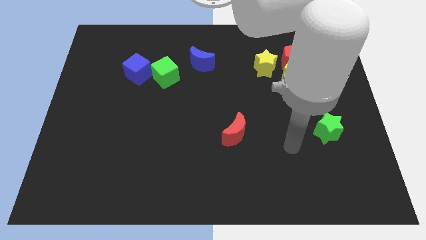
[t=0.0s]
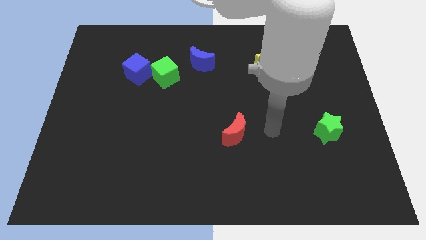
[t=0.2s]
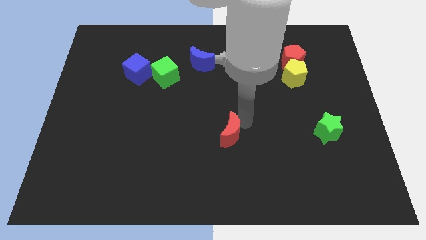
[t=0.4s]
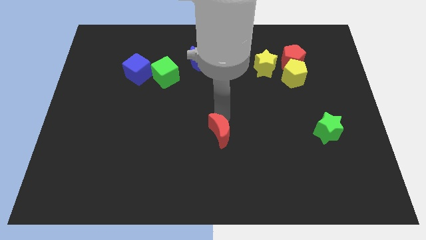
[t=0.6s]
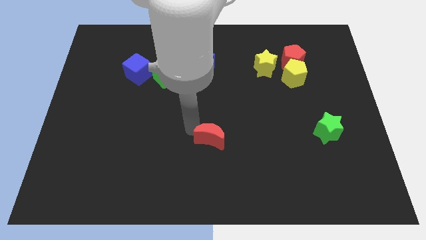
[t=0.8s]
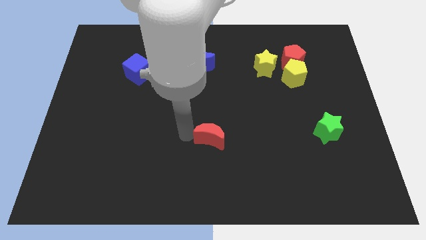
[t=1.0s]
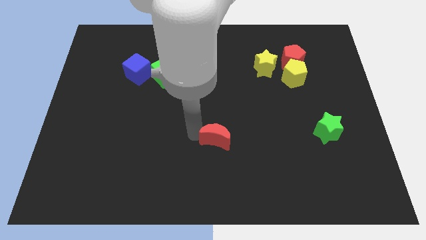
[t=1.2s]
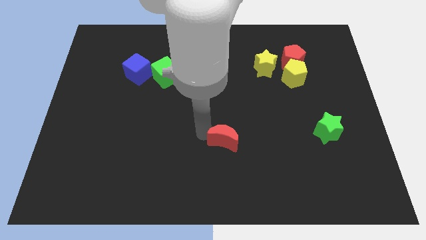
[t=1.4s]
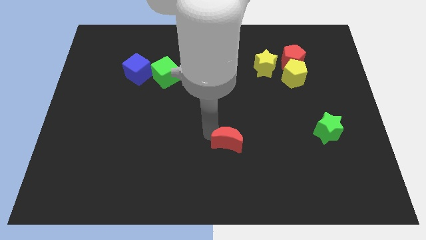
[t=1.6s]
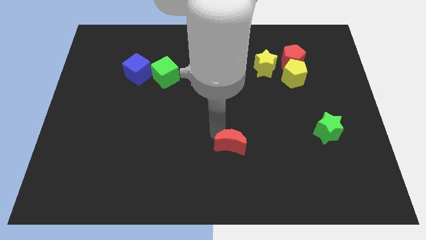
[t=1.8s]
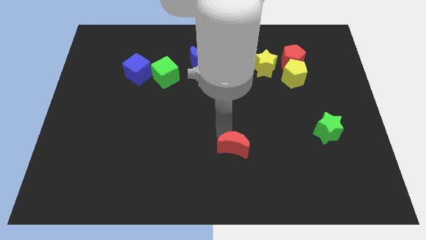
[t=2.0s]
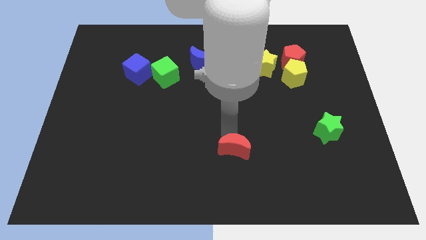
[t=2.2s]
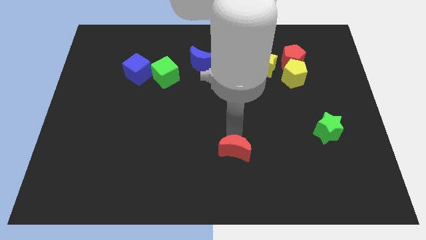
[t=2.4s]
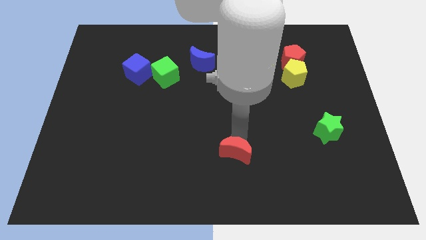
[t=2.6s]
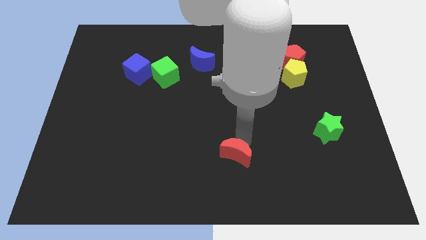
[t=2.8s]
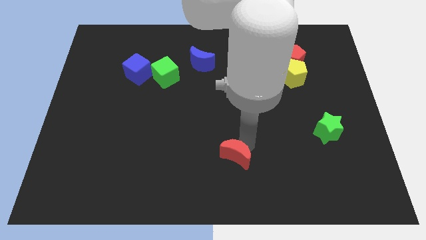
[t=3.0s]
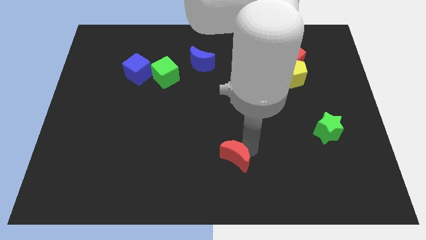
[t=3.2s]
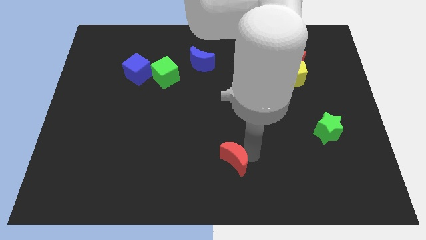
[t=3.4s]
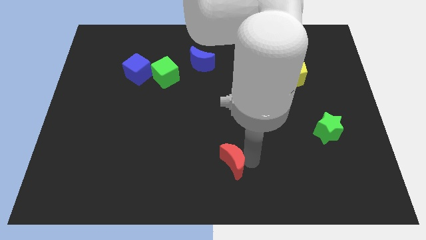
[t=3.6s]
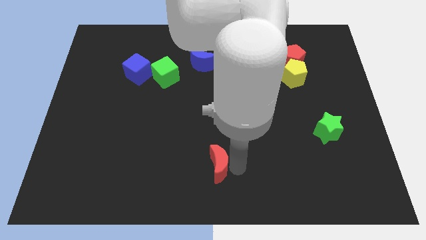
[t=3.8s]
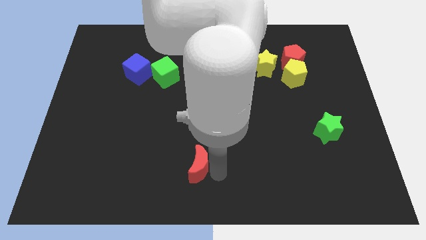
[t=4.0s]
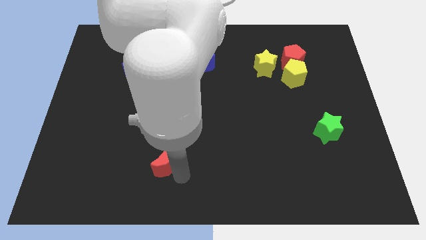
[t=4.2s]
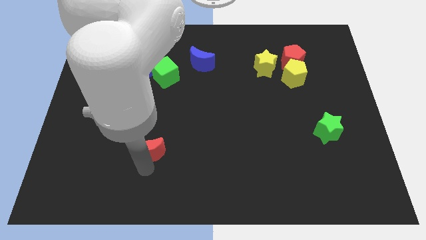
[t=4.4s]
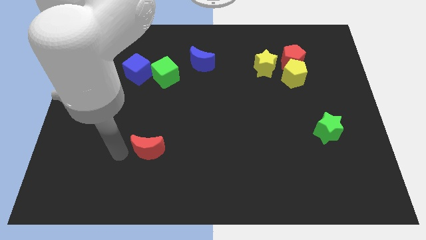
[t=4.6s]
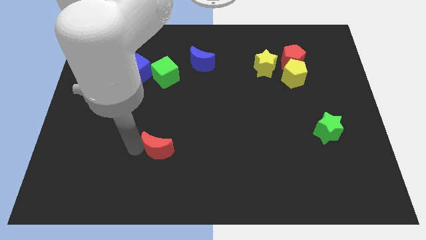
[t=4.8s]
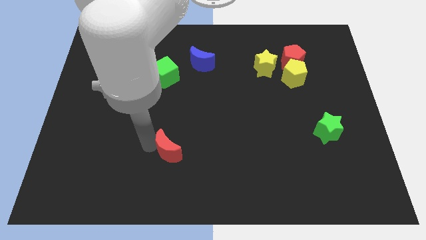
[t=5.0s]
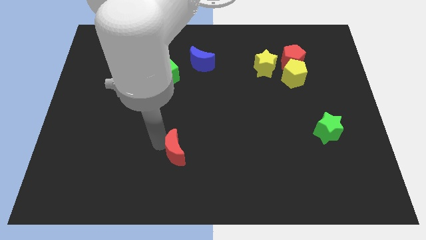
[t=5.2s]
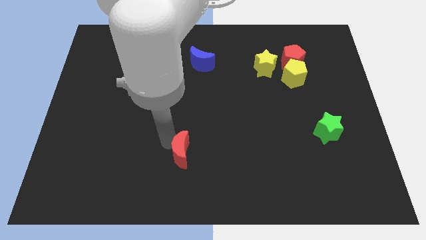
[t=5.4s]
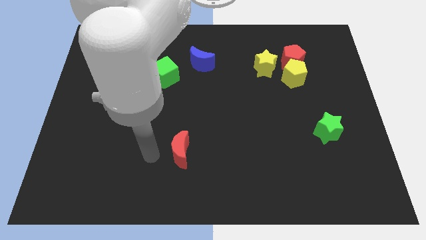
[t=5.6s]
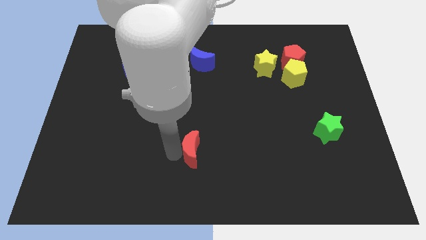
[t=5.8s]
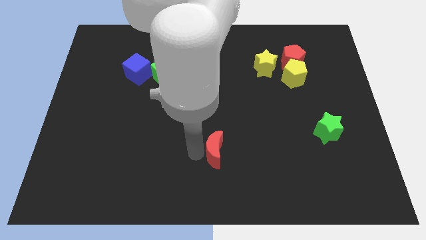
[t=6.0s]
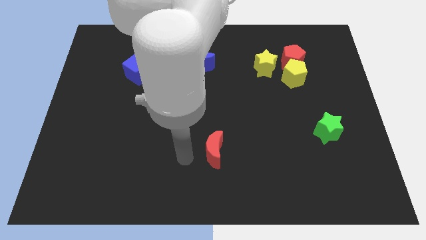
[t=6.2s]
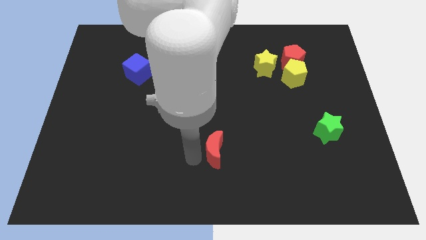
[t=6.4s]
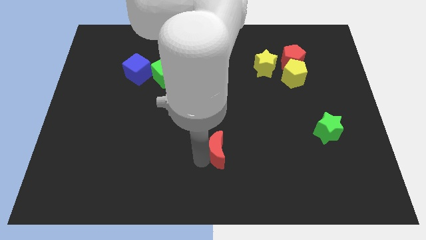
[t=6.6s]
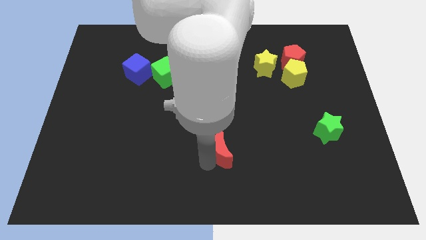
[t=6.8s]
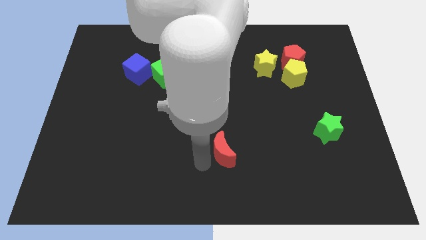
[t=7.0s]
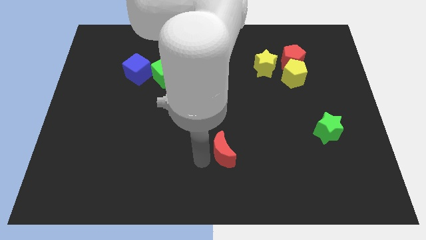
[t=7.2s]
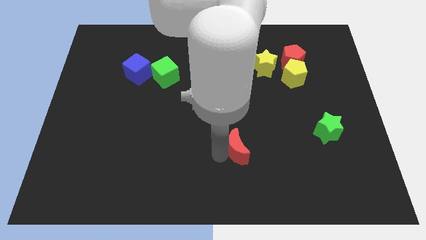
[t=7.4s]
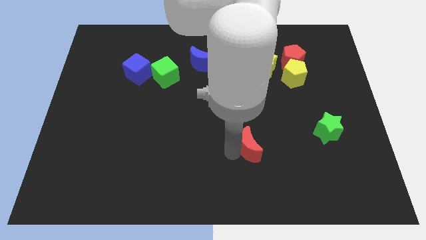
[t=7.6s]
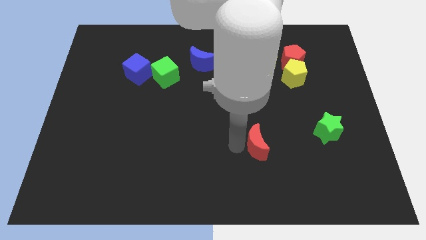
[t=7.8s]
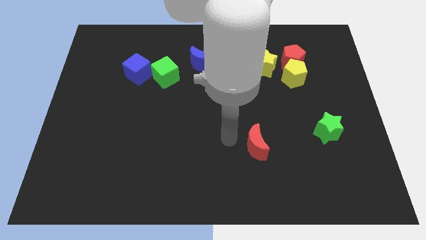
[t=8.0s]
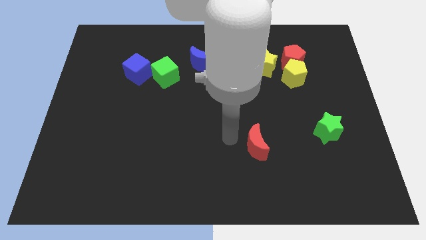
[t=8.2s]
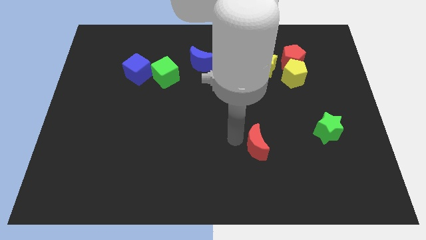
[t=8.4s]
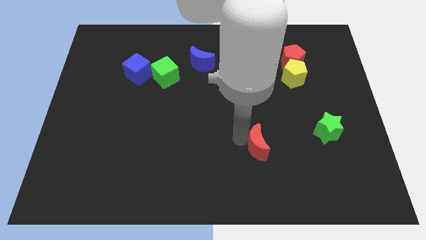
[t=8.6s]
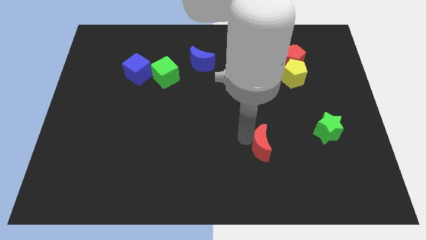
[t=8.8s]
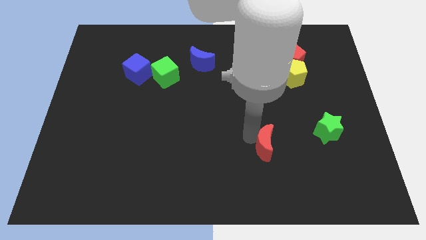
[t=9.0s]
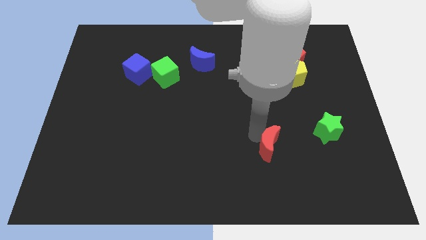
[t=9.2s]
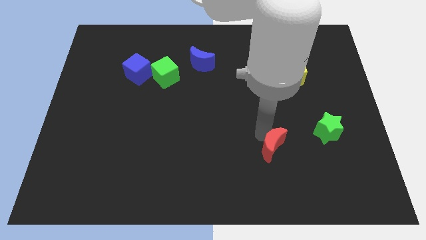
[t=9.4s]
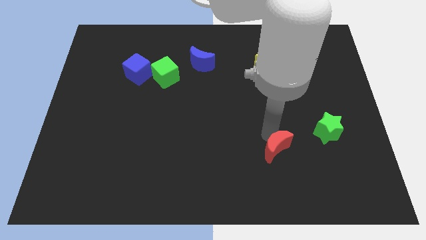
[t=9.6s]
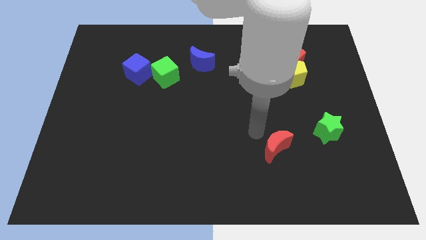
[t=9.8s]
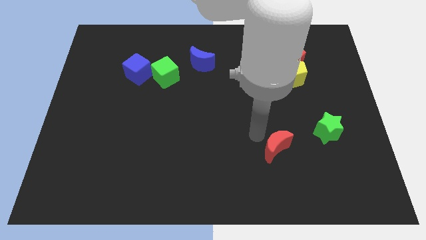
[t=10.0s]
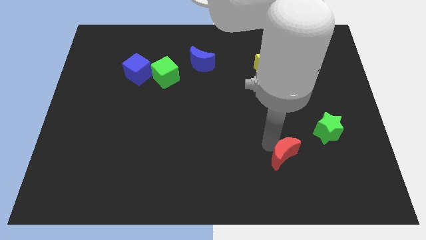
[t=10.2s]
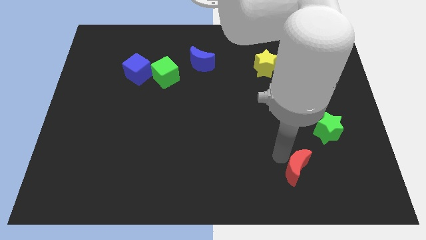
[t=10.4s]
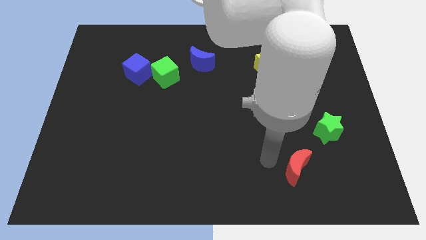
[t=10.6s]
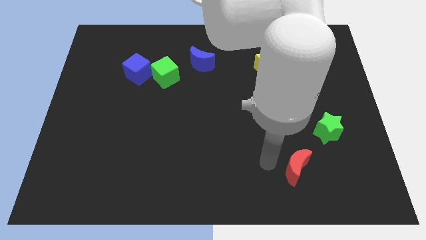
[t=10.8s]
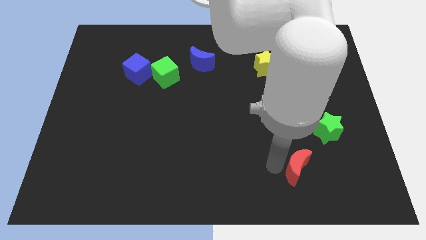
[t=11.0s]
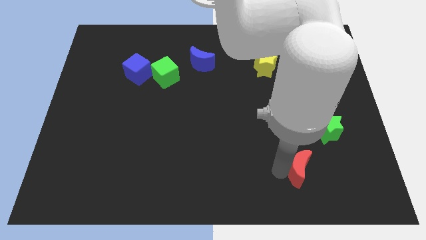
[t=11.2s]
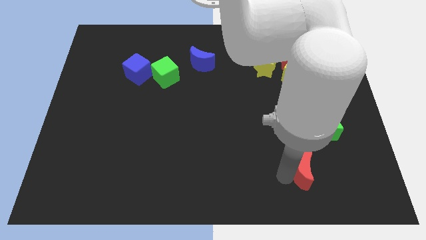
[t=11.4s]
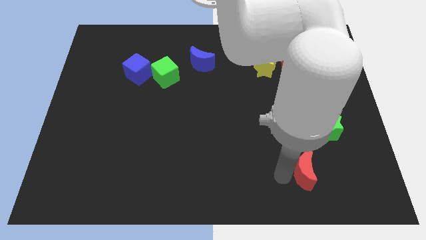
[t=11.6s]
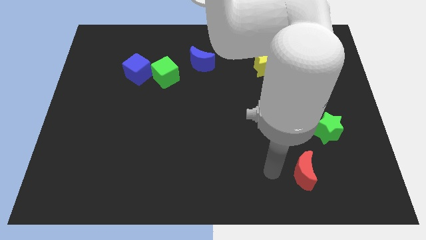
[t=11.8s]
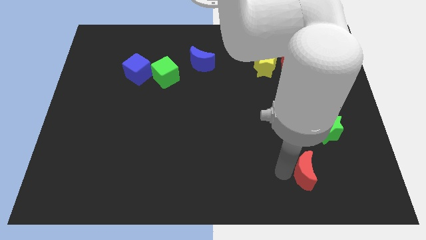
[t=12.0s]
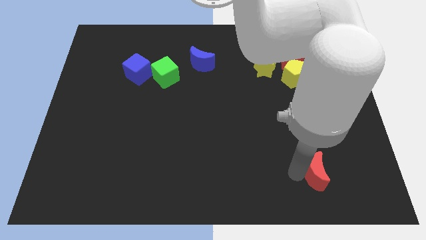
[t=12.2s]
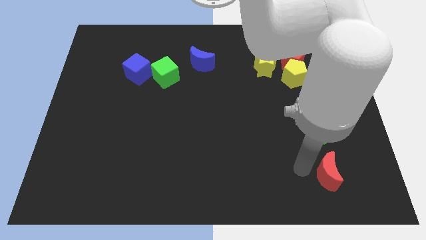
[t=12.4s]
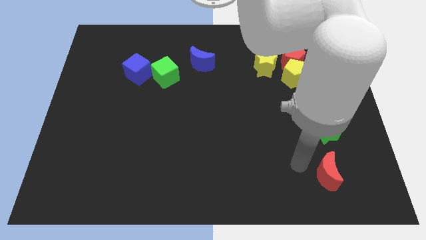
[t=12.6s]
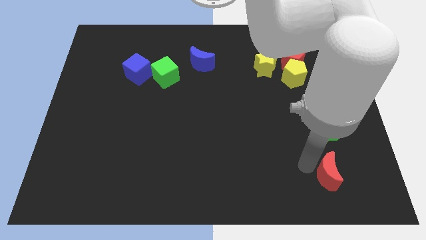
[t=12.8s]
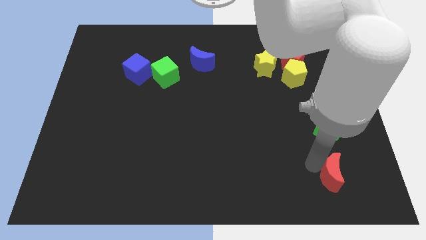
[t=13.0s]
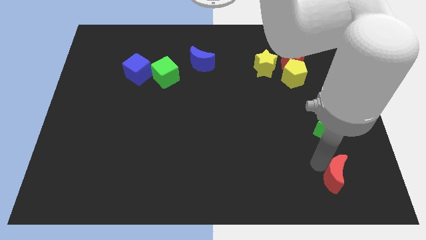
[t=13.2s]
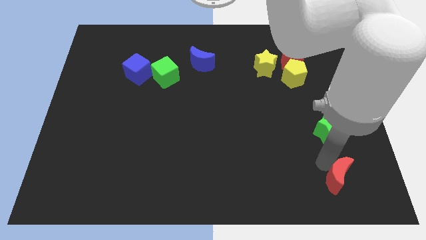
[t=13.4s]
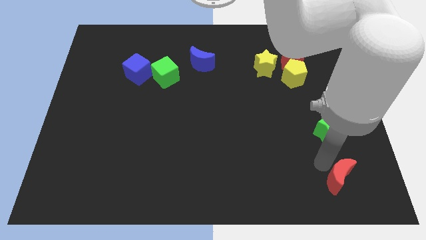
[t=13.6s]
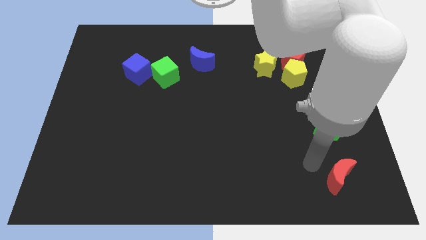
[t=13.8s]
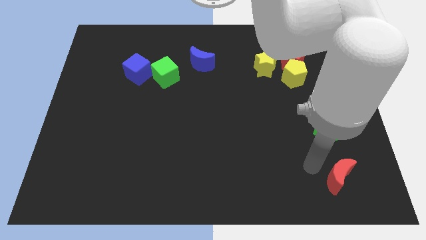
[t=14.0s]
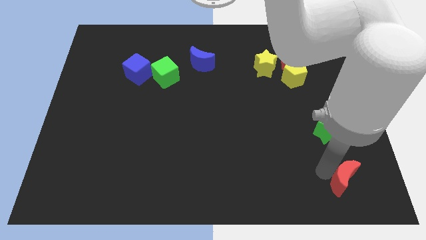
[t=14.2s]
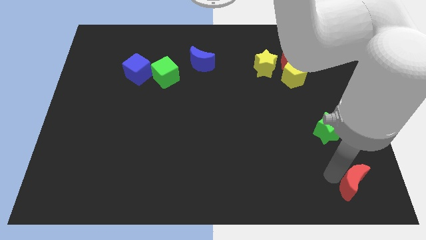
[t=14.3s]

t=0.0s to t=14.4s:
slide the red moon to the lower right corner
